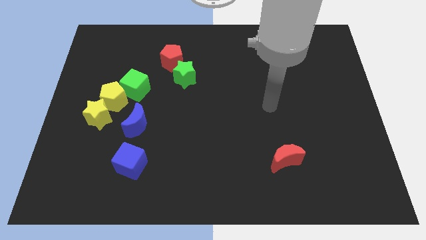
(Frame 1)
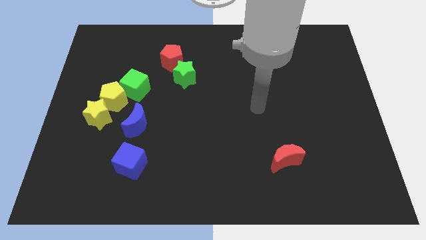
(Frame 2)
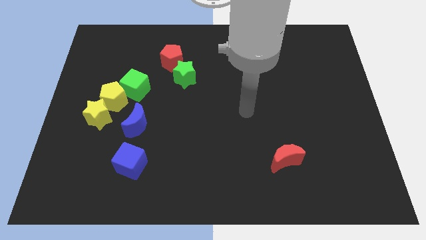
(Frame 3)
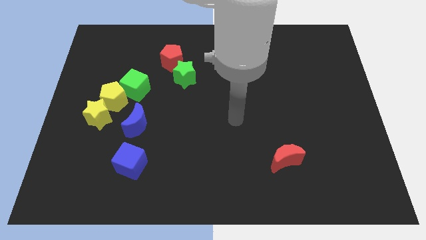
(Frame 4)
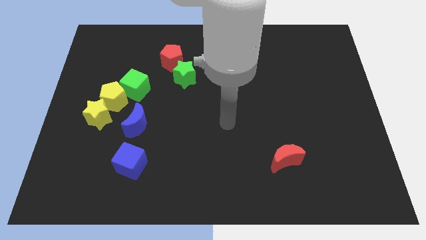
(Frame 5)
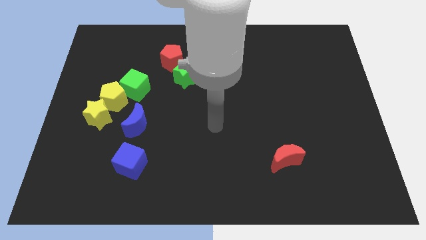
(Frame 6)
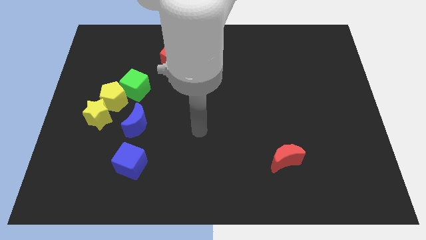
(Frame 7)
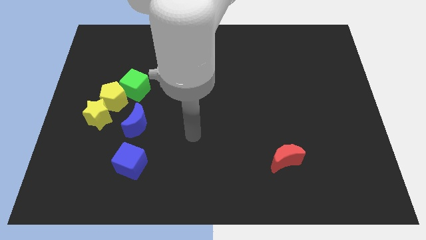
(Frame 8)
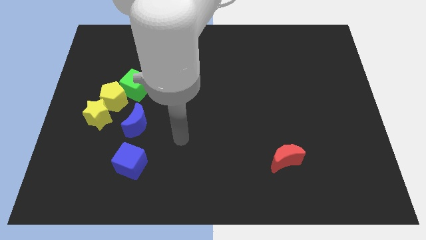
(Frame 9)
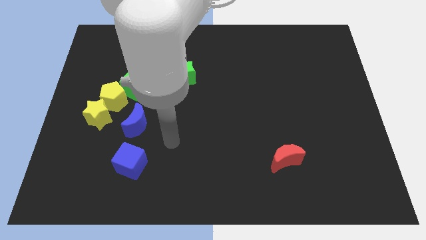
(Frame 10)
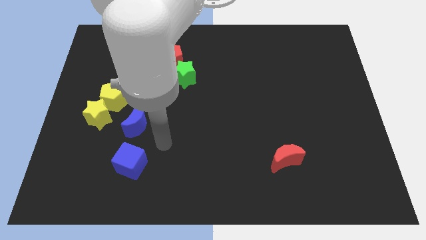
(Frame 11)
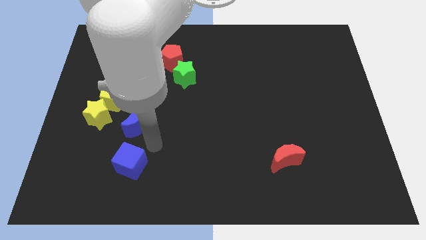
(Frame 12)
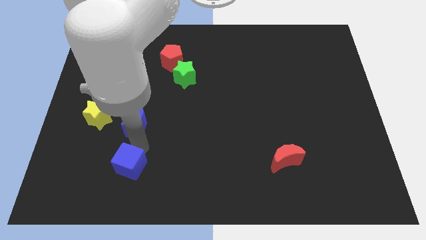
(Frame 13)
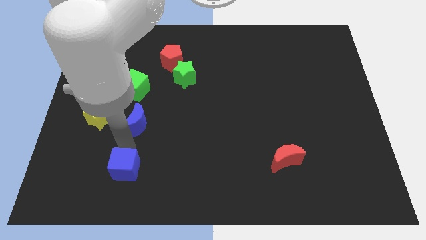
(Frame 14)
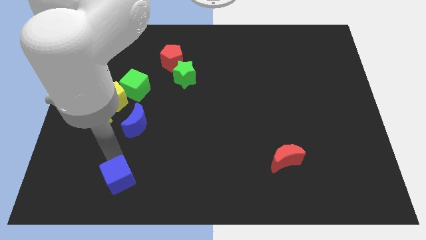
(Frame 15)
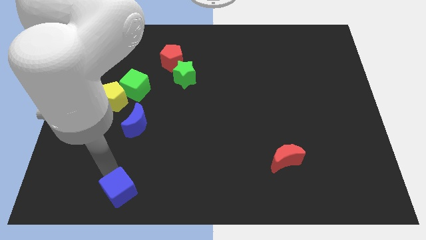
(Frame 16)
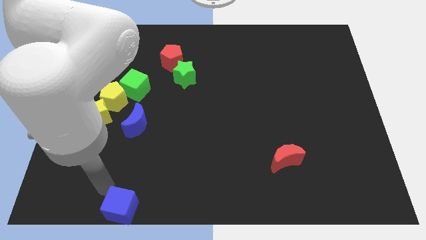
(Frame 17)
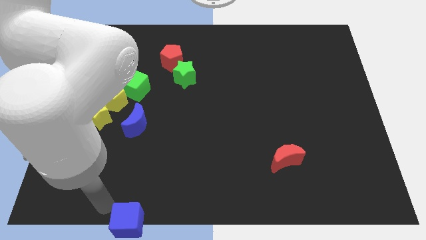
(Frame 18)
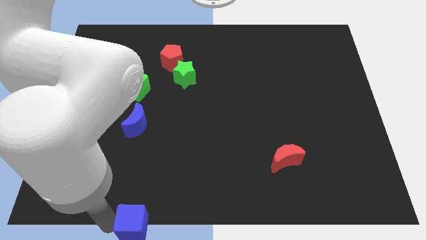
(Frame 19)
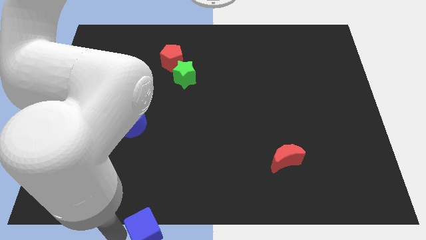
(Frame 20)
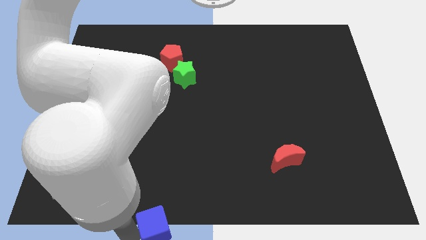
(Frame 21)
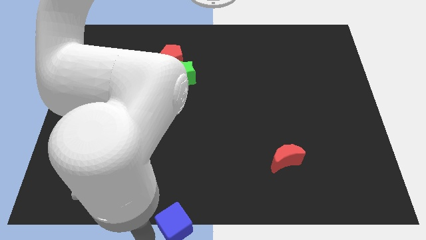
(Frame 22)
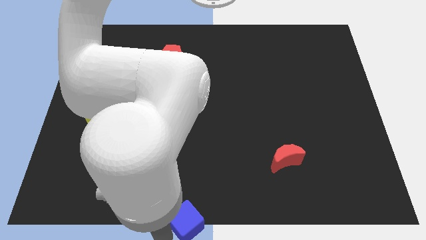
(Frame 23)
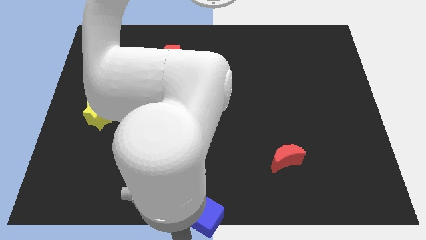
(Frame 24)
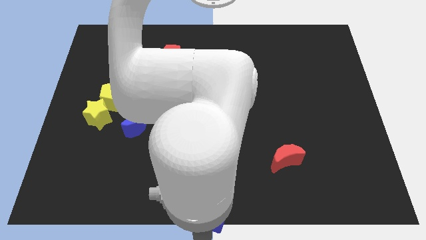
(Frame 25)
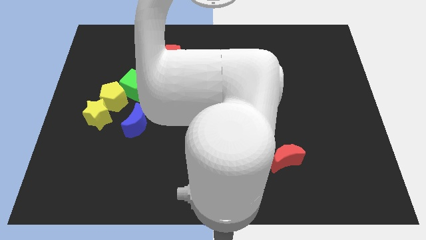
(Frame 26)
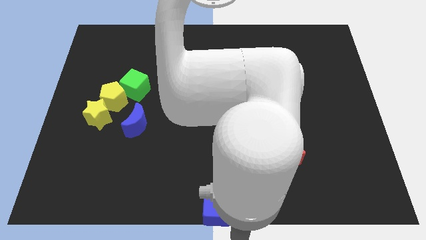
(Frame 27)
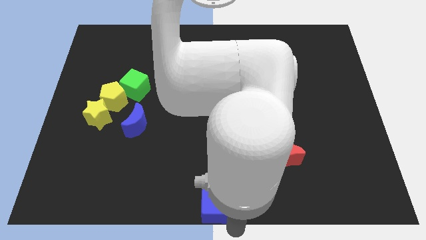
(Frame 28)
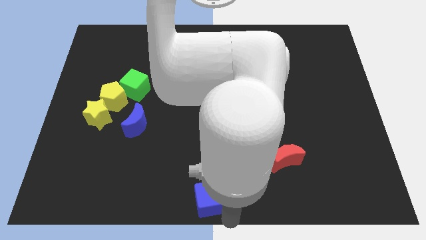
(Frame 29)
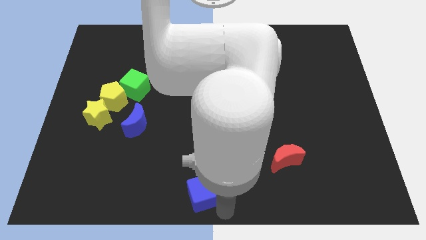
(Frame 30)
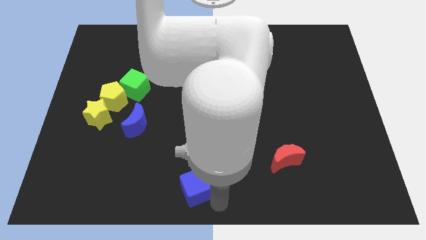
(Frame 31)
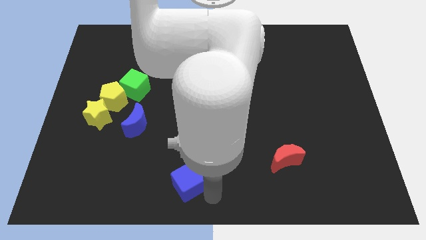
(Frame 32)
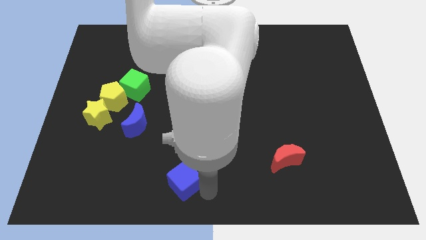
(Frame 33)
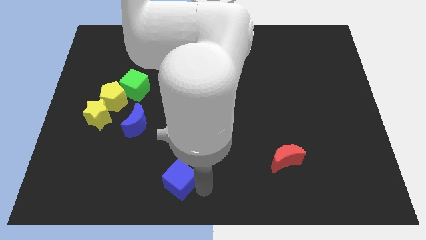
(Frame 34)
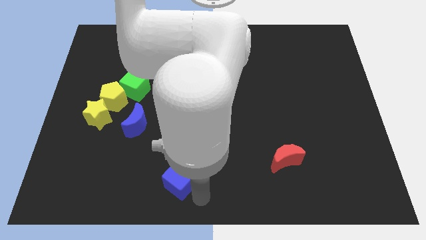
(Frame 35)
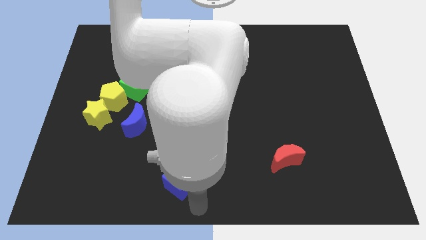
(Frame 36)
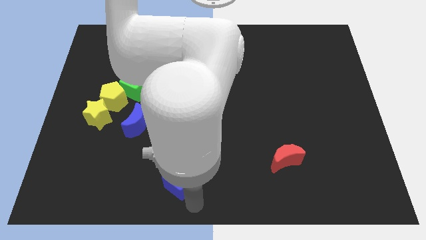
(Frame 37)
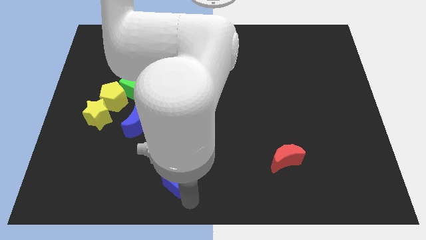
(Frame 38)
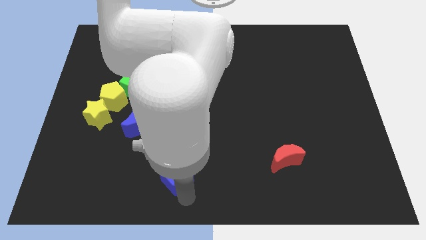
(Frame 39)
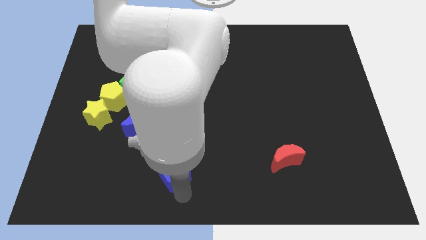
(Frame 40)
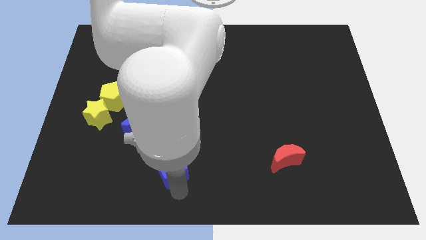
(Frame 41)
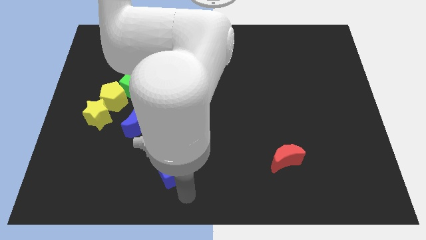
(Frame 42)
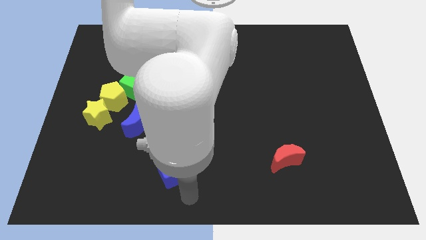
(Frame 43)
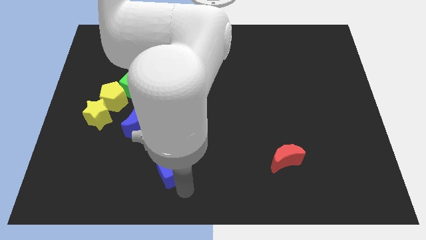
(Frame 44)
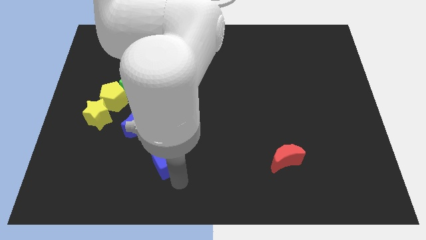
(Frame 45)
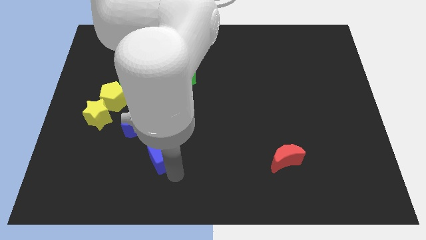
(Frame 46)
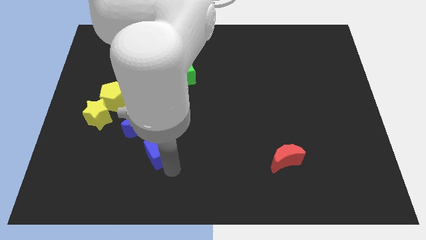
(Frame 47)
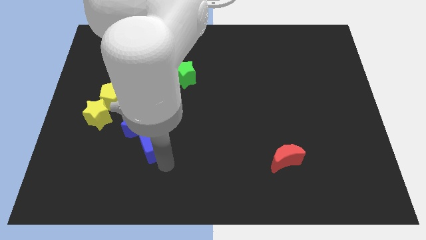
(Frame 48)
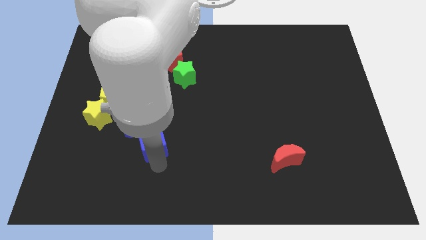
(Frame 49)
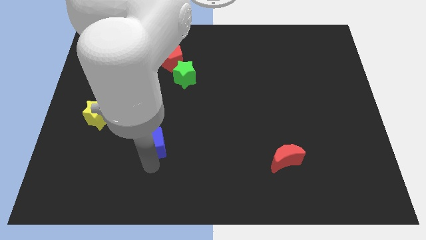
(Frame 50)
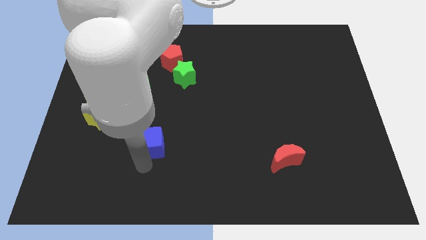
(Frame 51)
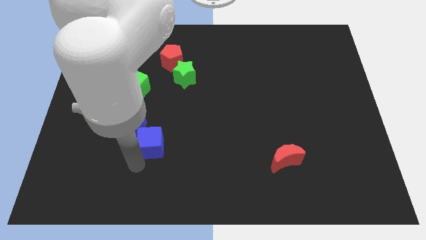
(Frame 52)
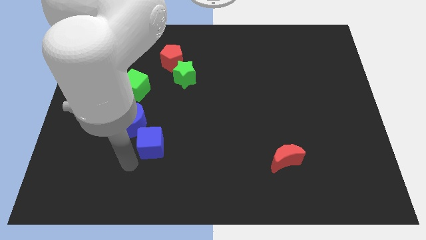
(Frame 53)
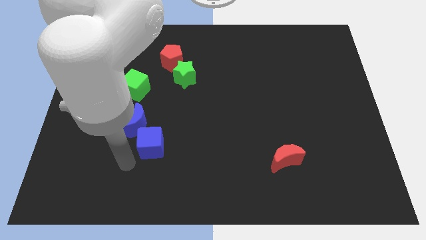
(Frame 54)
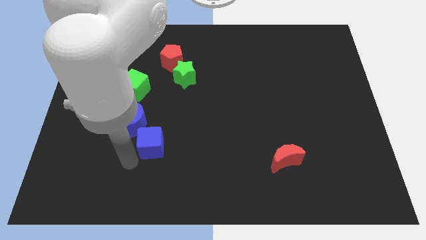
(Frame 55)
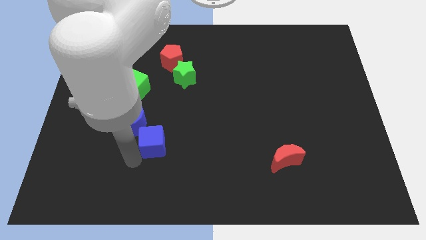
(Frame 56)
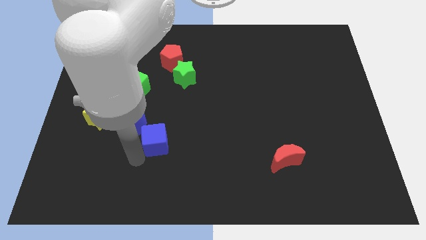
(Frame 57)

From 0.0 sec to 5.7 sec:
slide the blue cube up and to the right diagonally somewhat

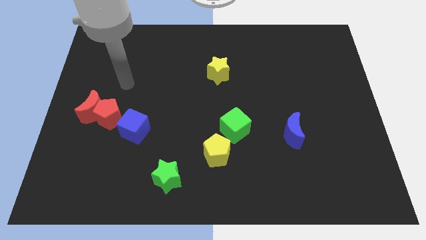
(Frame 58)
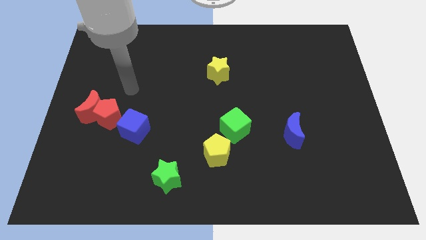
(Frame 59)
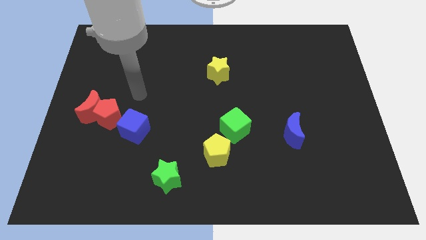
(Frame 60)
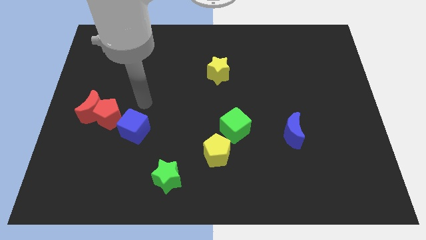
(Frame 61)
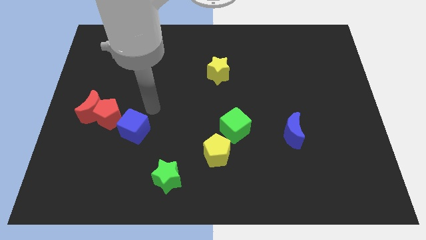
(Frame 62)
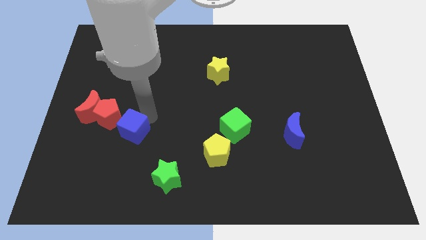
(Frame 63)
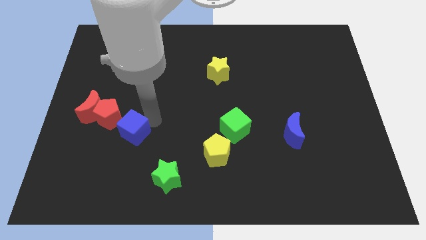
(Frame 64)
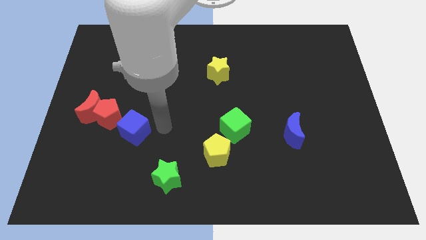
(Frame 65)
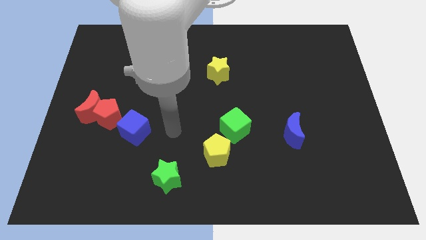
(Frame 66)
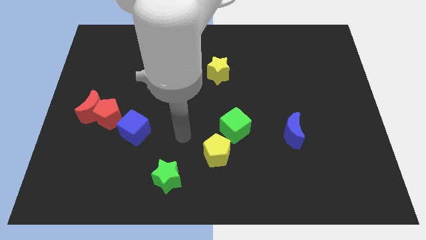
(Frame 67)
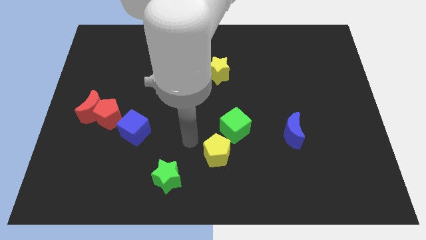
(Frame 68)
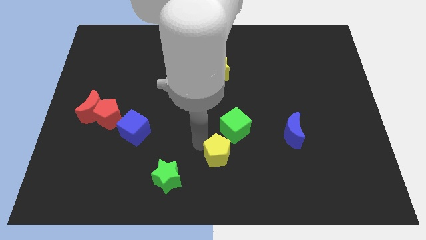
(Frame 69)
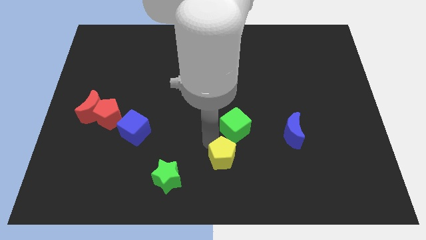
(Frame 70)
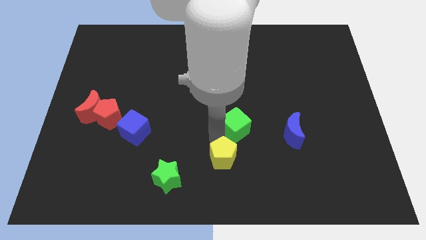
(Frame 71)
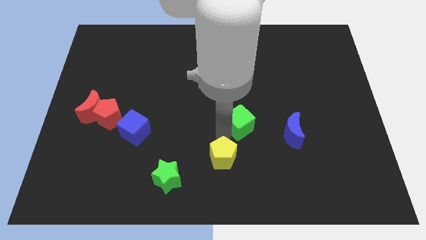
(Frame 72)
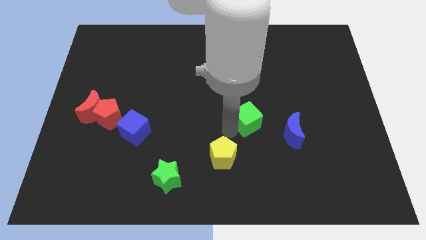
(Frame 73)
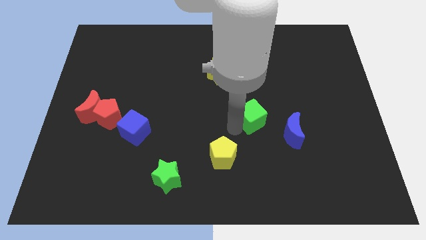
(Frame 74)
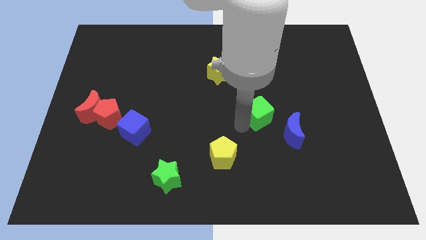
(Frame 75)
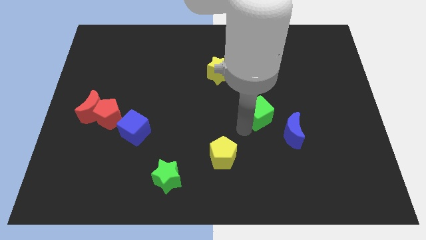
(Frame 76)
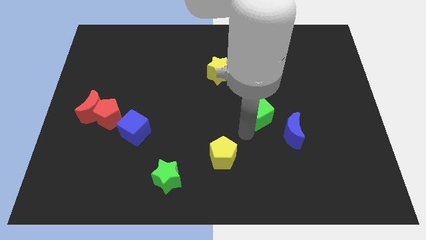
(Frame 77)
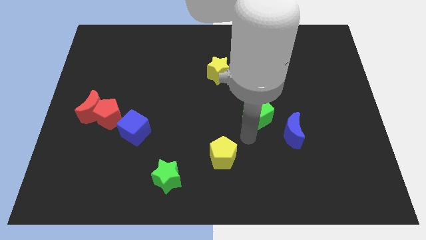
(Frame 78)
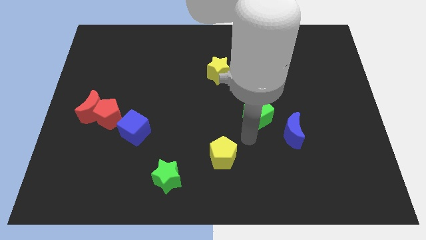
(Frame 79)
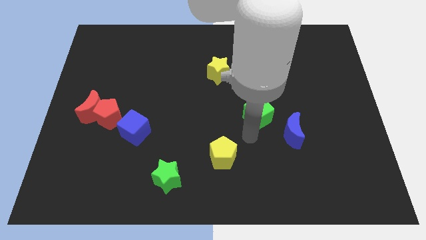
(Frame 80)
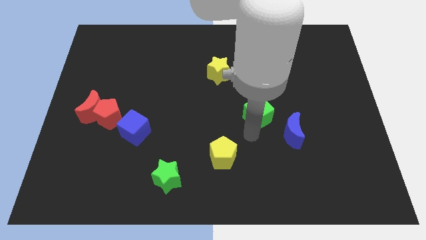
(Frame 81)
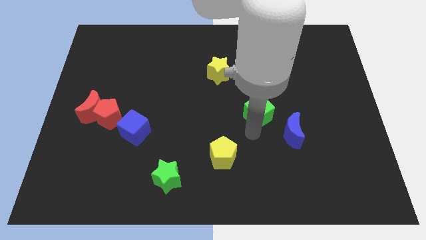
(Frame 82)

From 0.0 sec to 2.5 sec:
slide the green cube a bit up and to the right diagonally

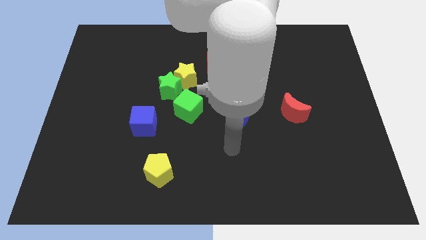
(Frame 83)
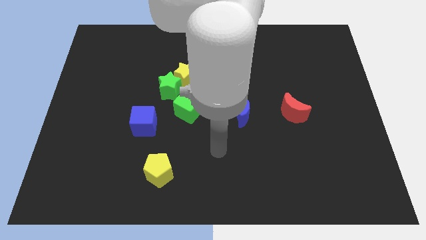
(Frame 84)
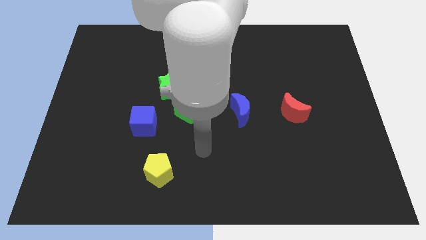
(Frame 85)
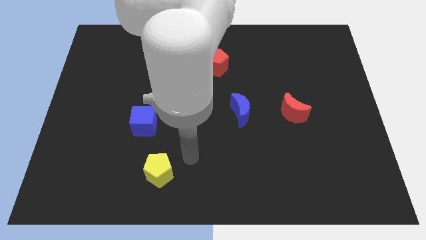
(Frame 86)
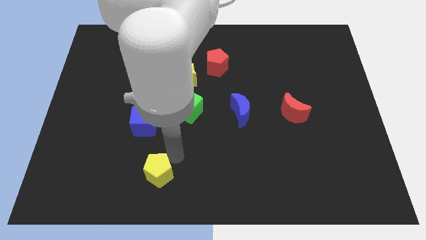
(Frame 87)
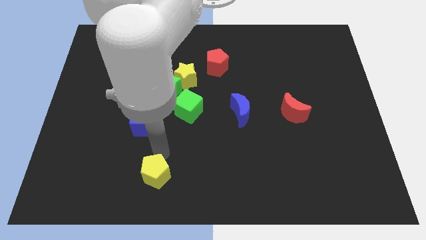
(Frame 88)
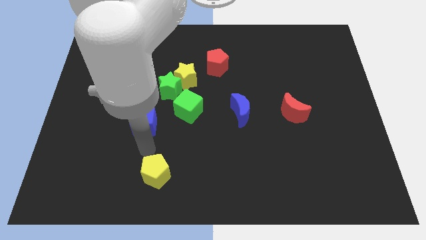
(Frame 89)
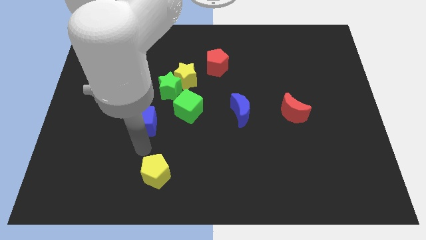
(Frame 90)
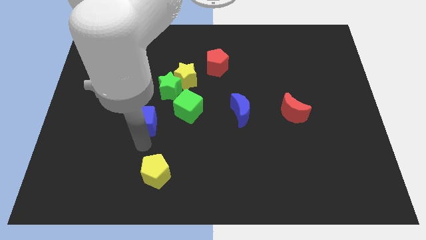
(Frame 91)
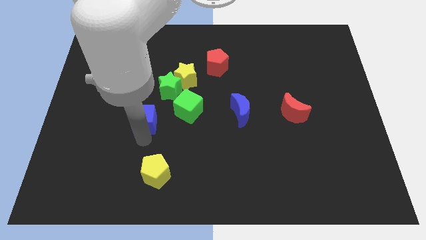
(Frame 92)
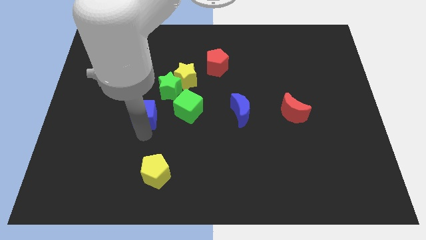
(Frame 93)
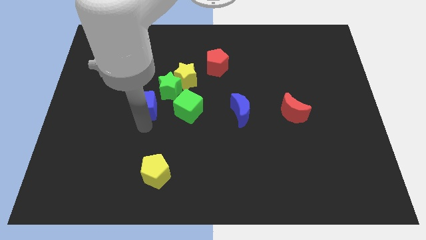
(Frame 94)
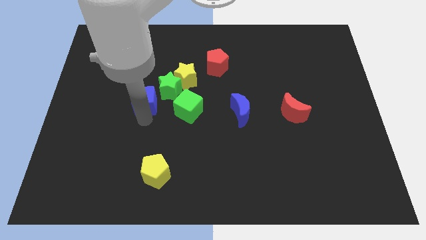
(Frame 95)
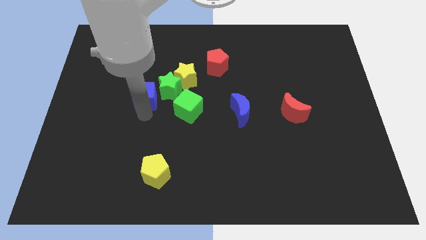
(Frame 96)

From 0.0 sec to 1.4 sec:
move the blue cube slightly up
